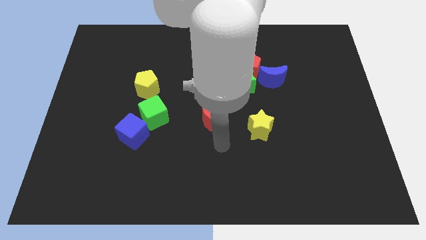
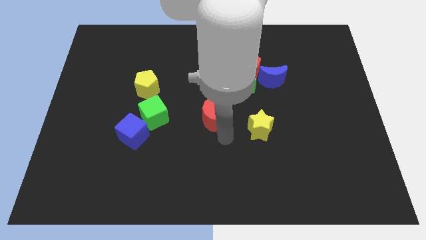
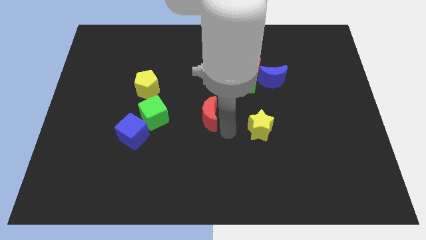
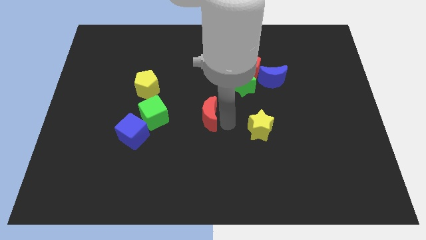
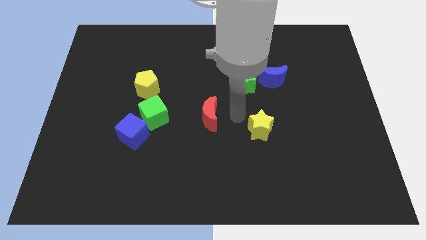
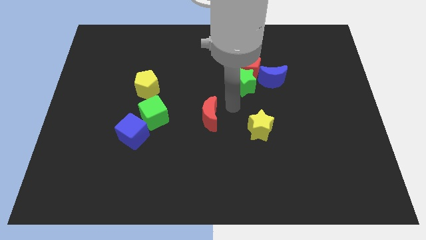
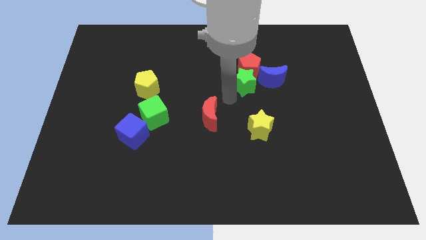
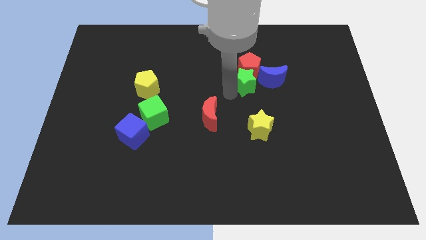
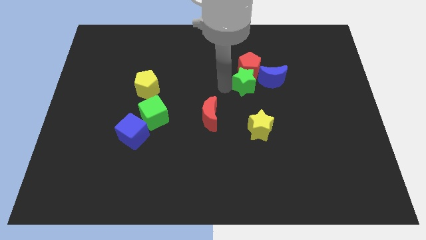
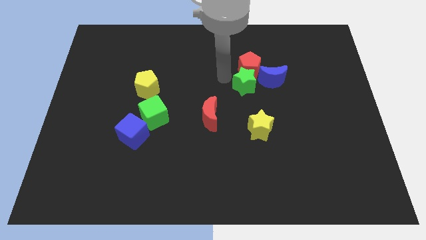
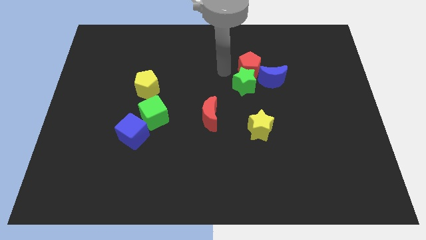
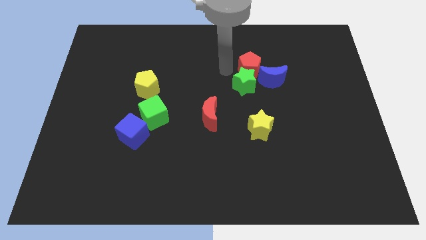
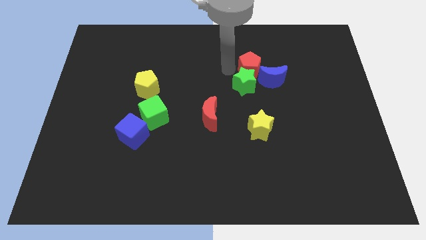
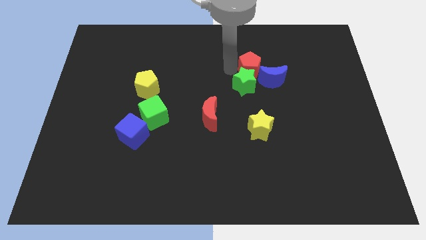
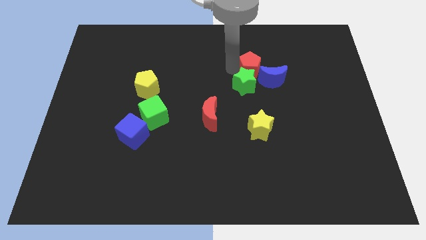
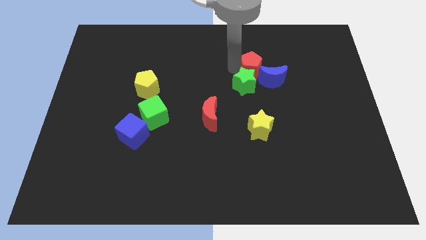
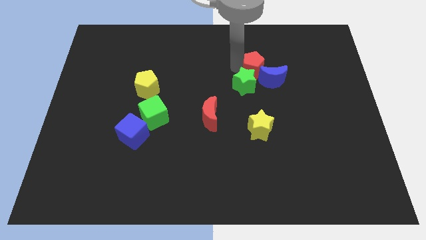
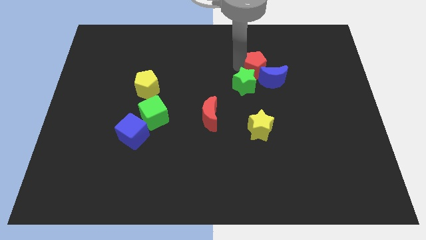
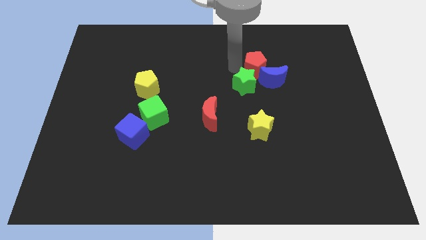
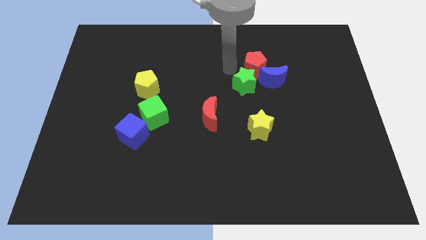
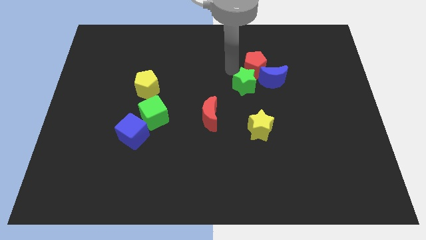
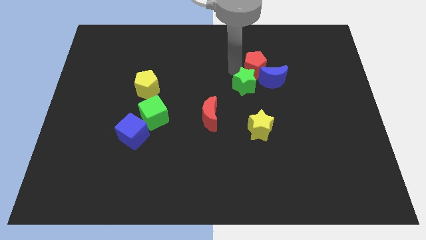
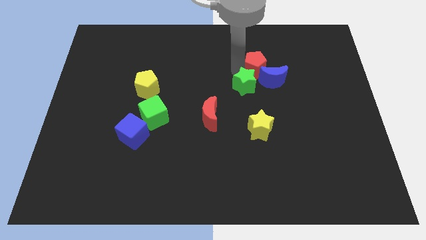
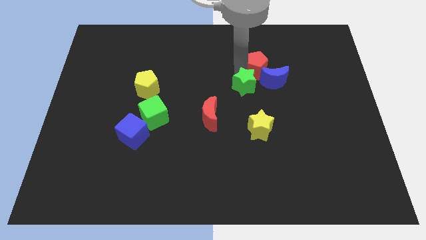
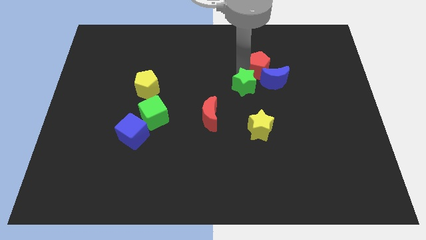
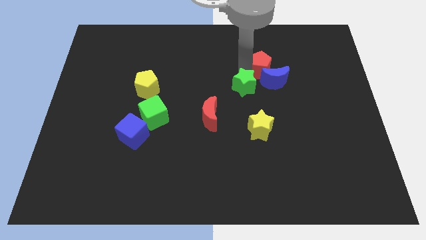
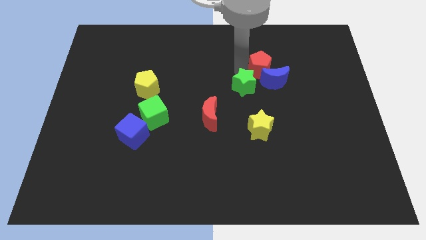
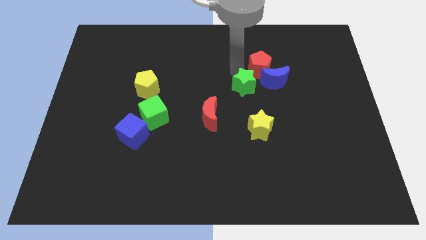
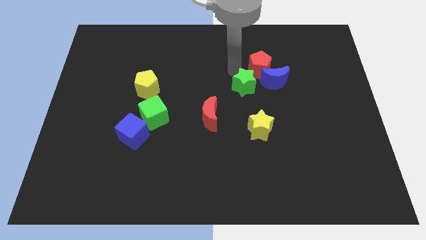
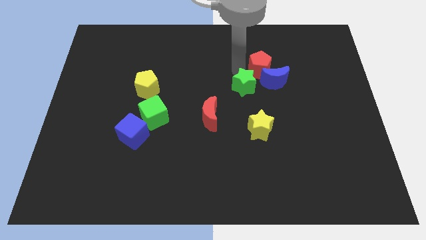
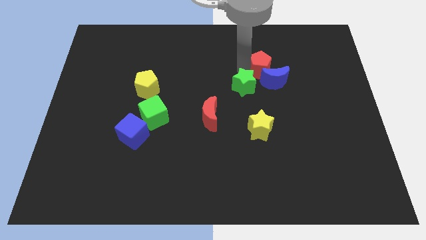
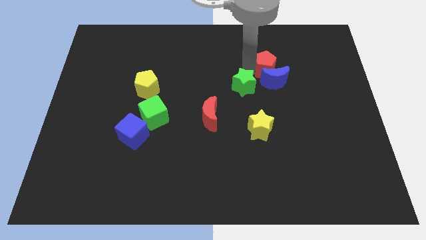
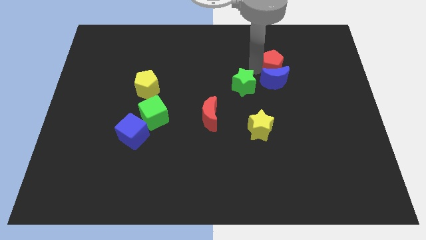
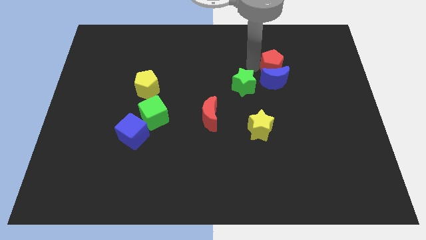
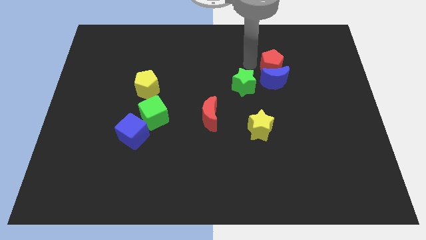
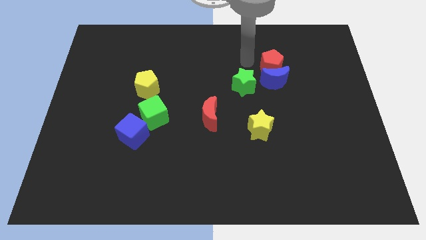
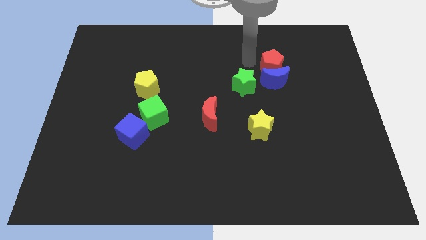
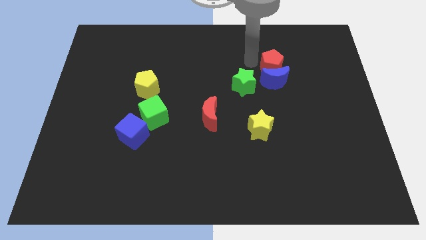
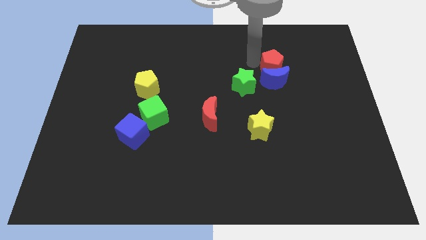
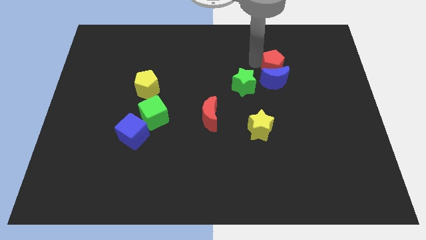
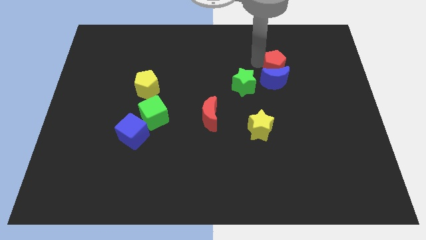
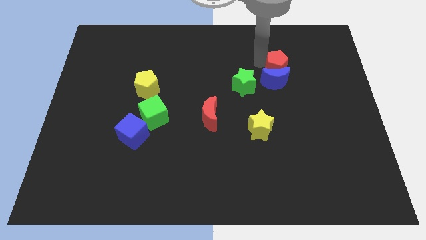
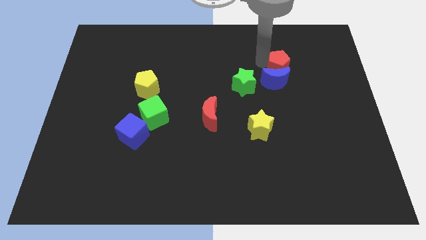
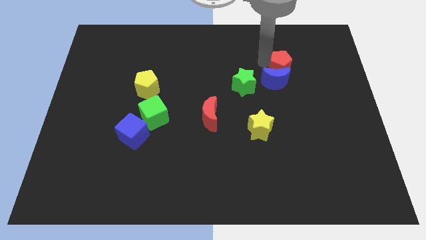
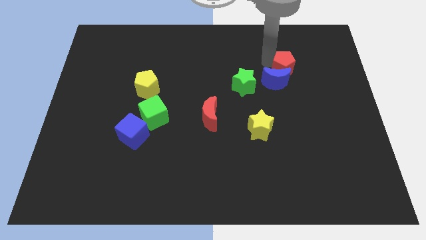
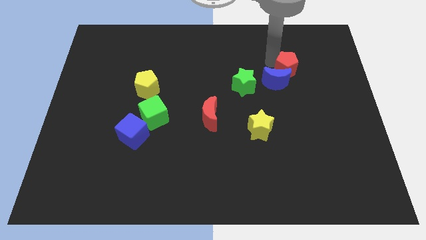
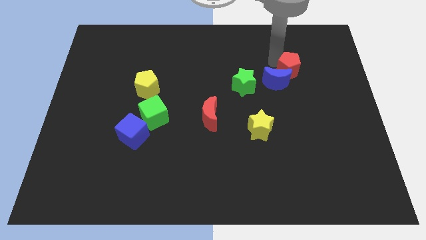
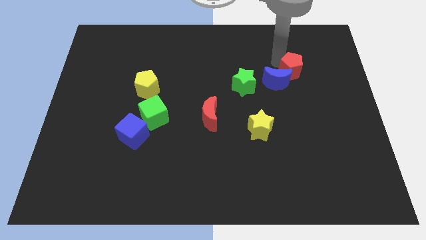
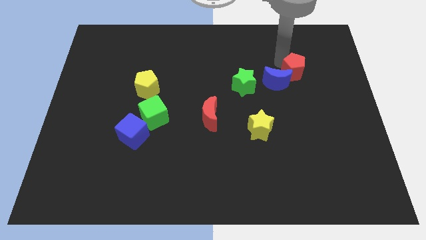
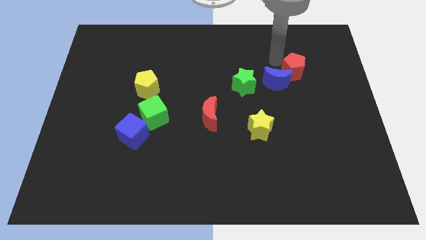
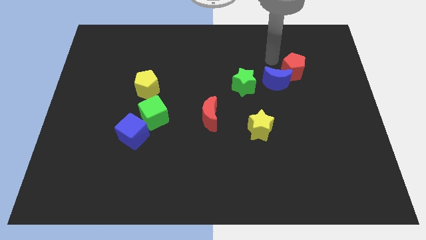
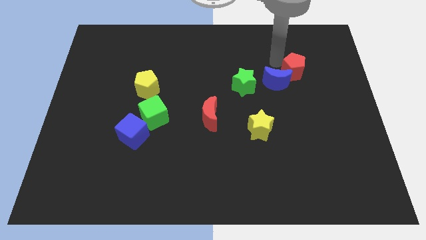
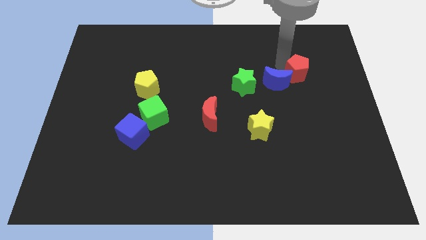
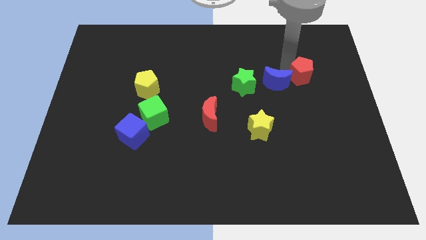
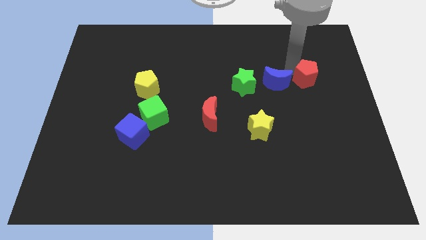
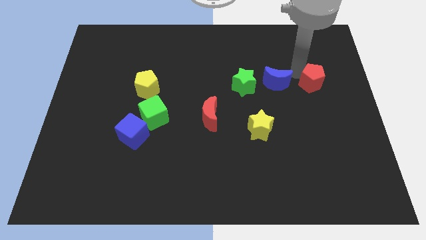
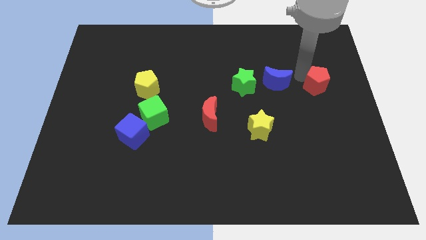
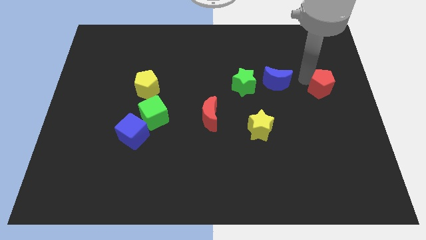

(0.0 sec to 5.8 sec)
put the red pentagon to the right side of the board

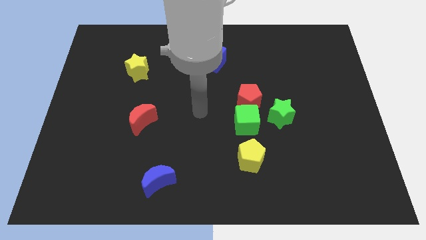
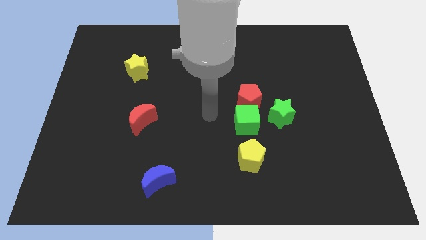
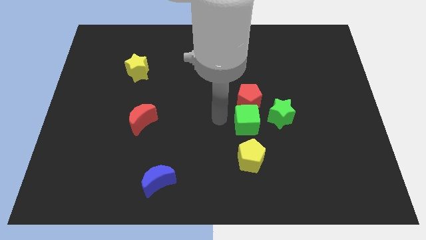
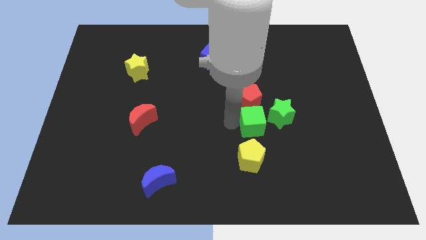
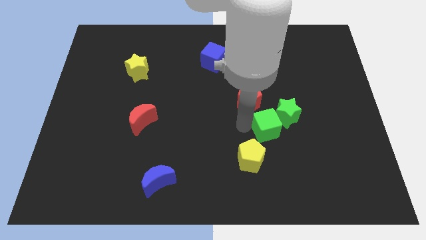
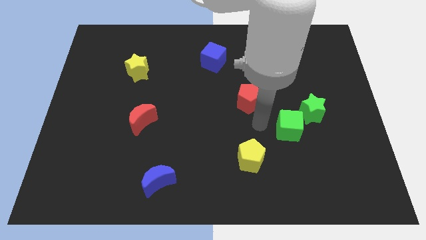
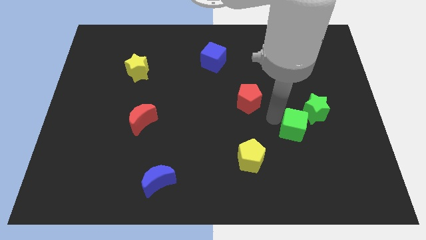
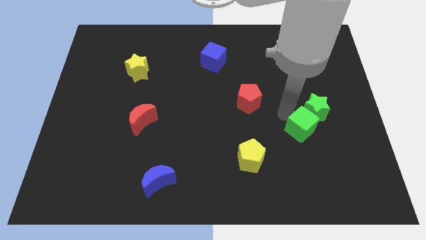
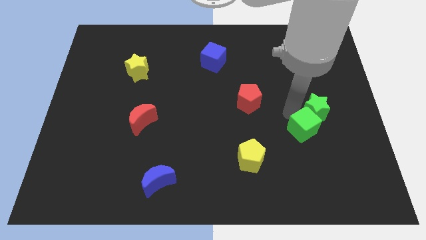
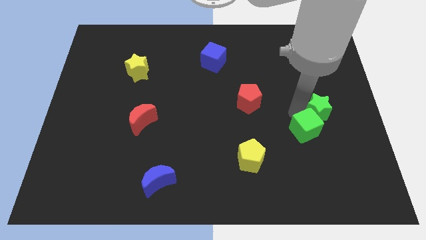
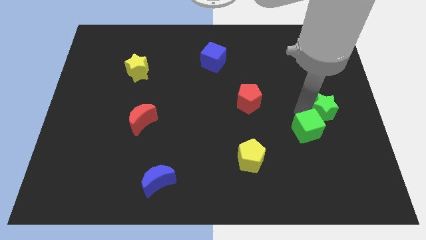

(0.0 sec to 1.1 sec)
put the green star to the right side
